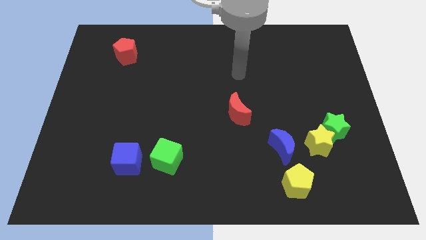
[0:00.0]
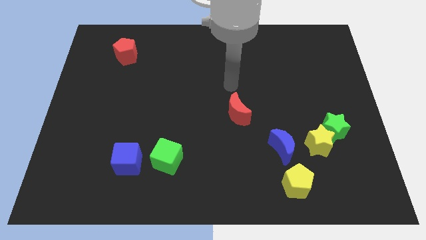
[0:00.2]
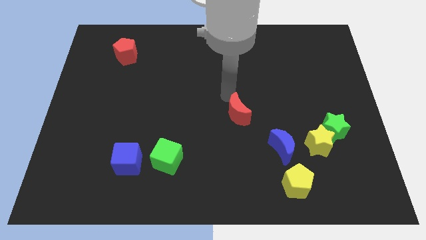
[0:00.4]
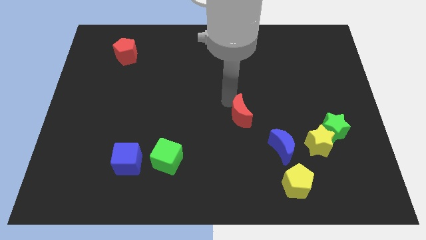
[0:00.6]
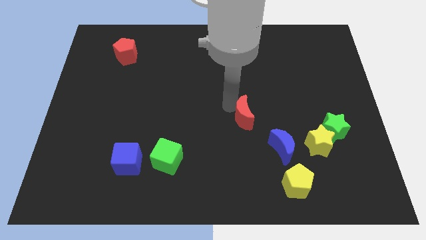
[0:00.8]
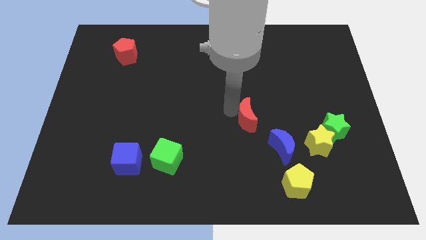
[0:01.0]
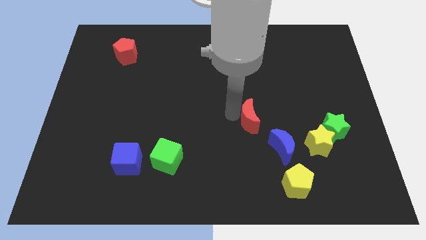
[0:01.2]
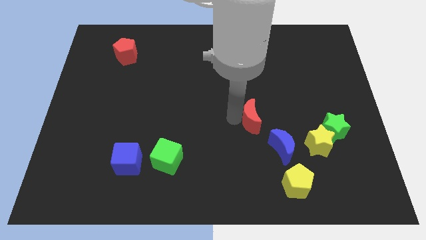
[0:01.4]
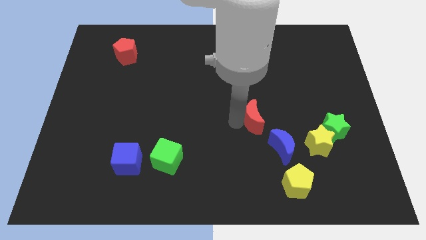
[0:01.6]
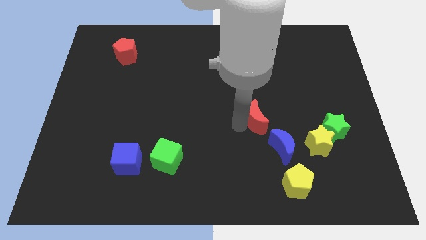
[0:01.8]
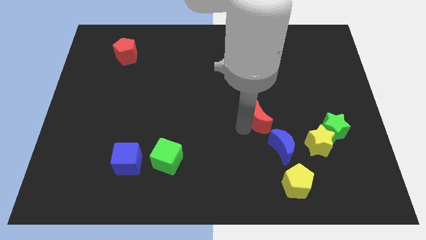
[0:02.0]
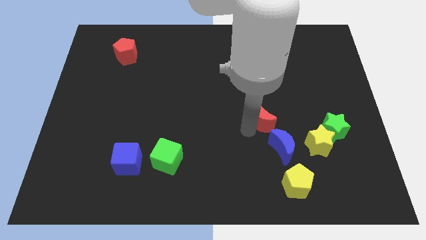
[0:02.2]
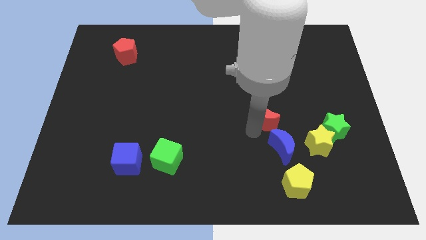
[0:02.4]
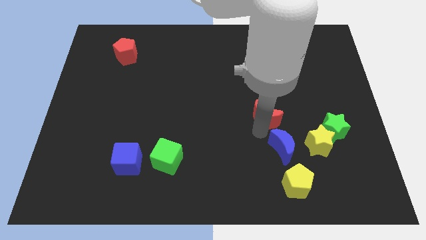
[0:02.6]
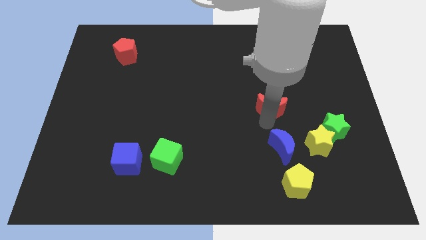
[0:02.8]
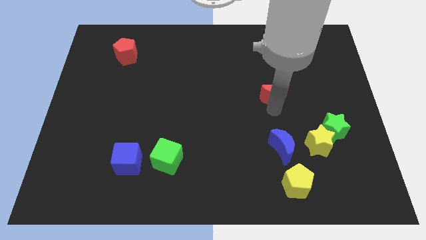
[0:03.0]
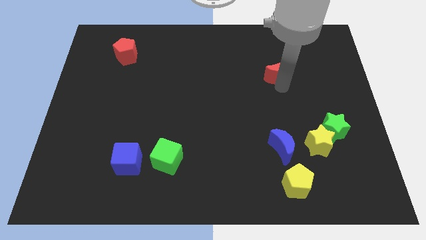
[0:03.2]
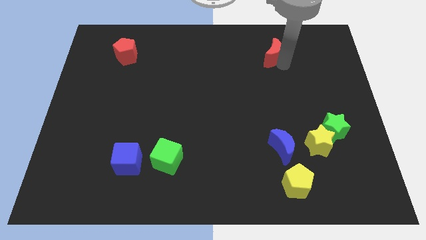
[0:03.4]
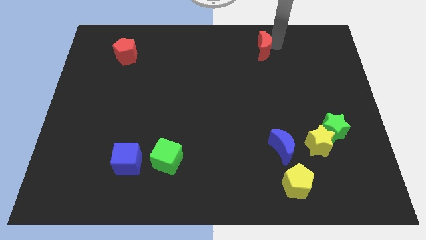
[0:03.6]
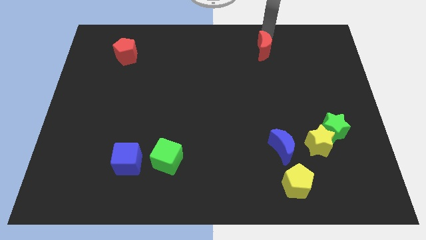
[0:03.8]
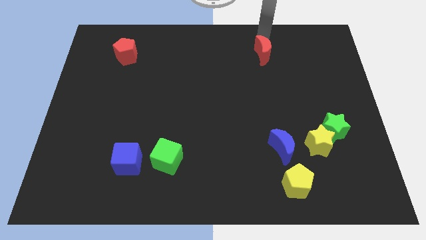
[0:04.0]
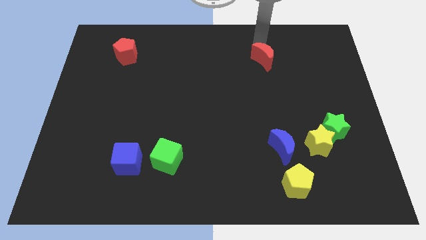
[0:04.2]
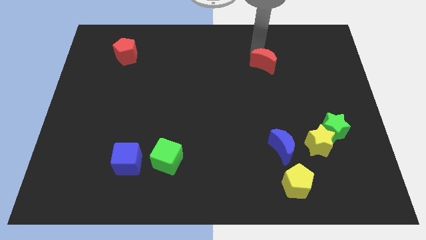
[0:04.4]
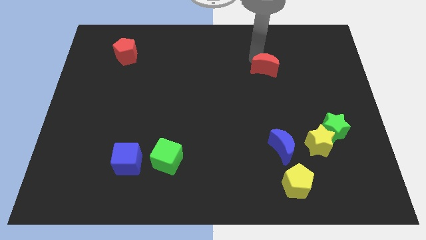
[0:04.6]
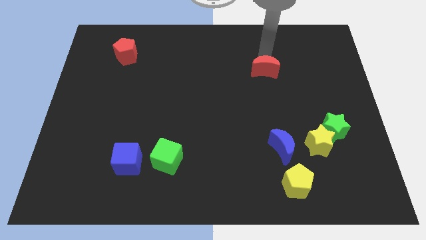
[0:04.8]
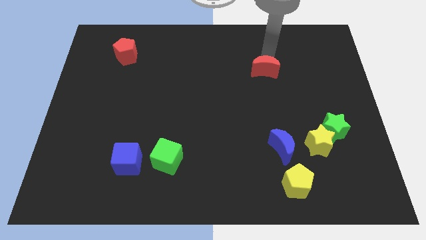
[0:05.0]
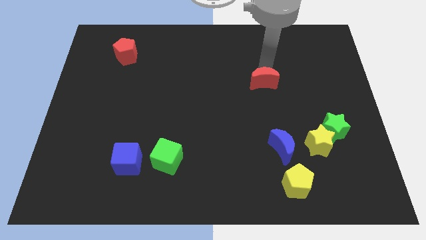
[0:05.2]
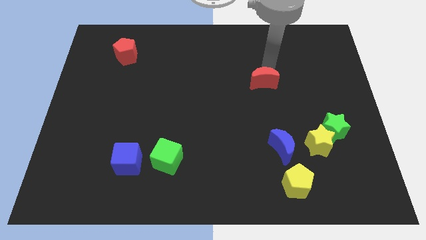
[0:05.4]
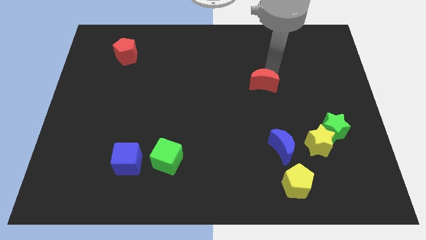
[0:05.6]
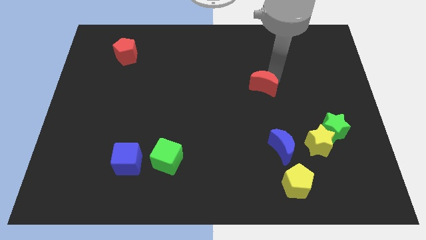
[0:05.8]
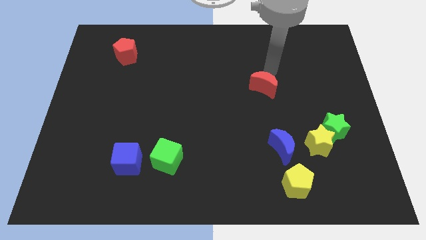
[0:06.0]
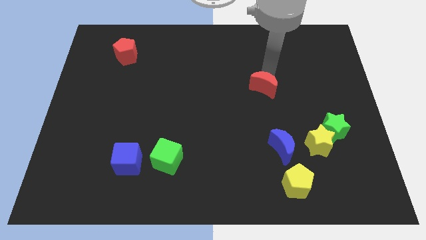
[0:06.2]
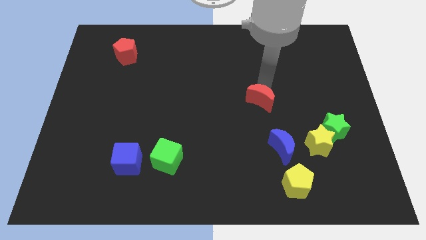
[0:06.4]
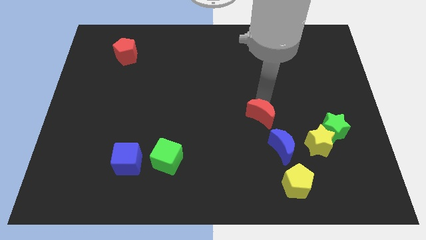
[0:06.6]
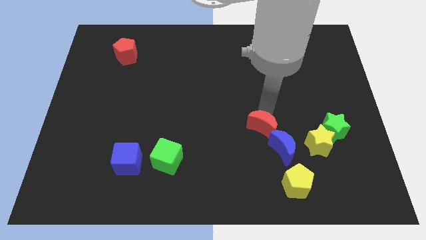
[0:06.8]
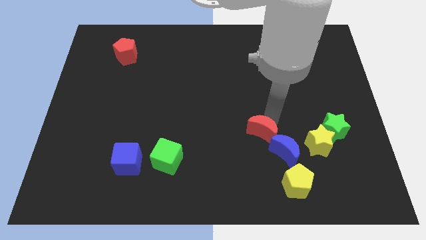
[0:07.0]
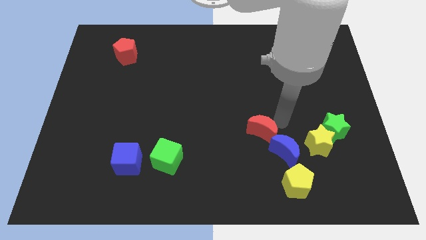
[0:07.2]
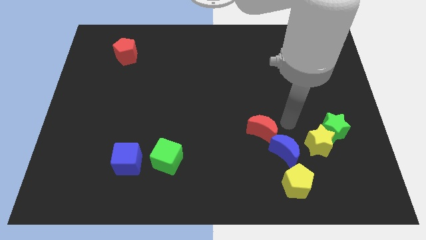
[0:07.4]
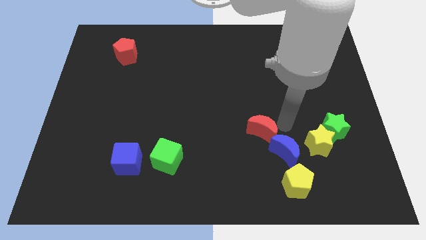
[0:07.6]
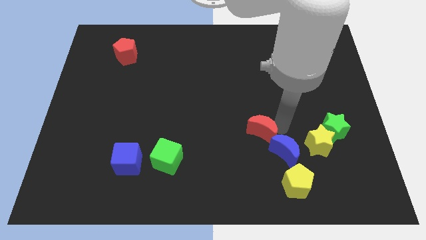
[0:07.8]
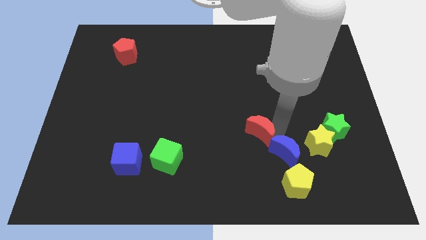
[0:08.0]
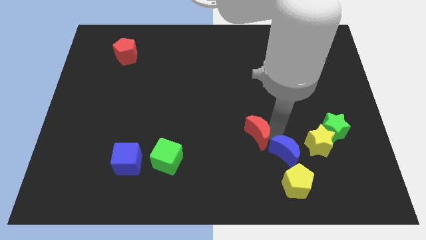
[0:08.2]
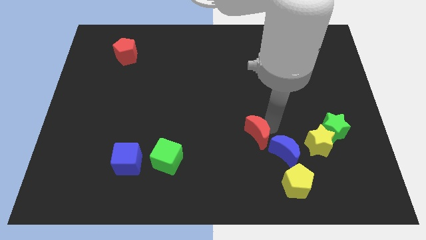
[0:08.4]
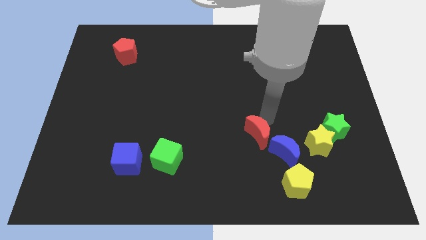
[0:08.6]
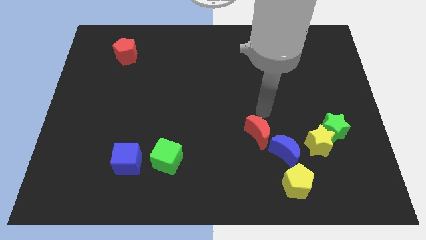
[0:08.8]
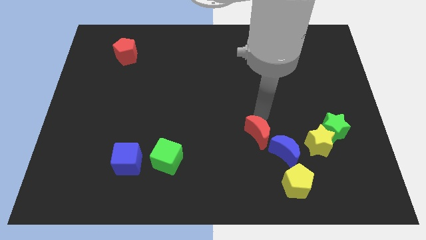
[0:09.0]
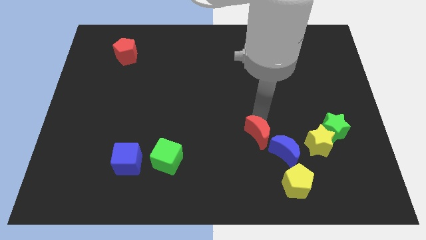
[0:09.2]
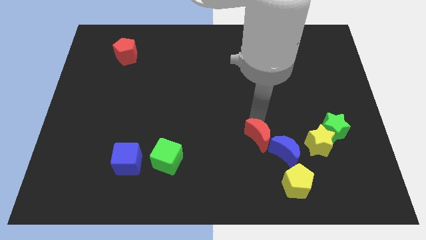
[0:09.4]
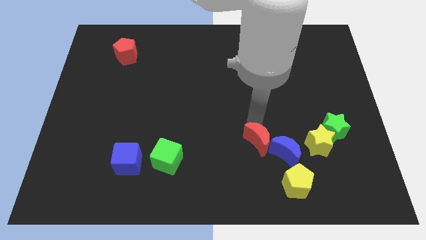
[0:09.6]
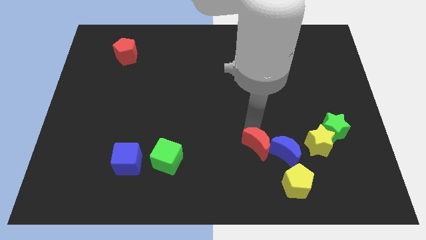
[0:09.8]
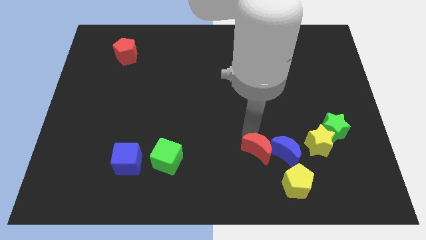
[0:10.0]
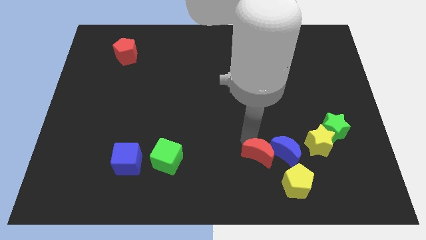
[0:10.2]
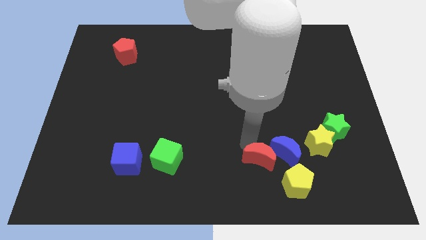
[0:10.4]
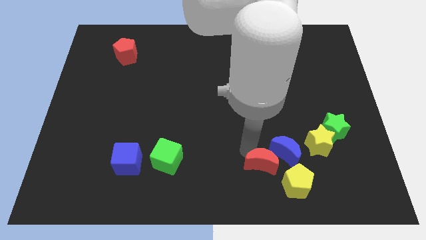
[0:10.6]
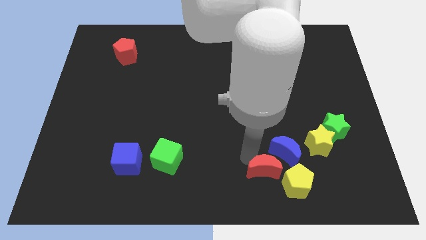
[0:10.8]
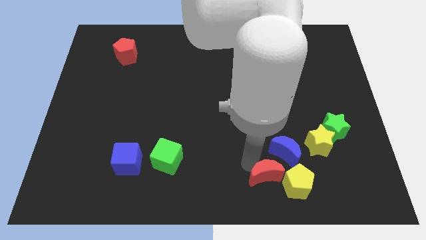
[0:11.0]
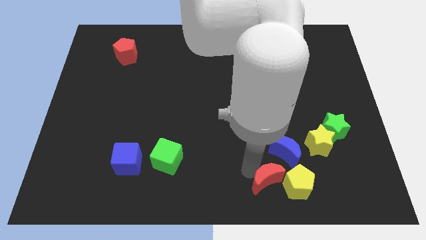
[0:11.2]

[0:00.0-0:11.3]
slide the red moon next to the yellow pentagon

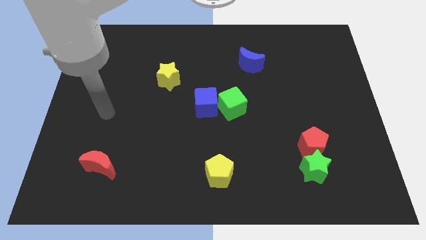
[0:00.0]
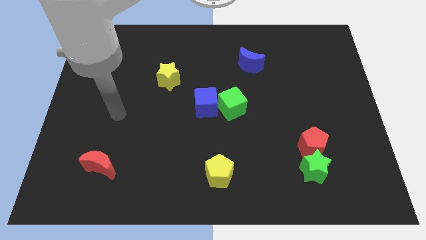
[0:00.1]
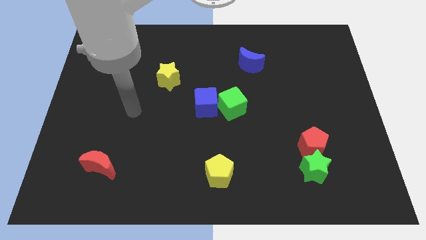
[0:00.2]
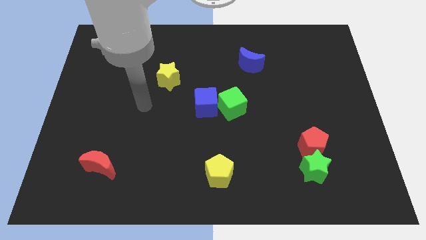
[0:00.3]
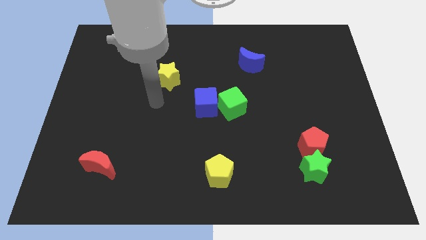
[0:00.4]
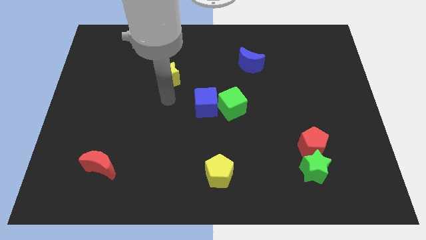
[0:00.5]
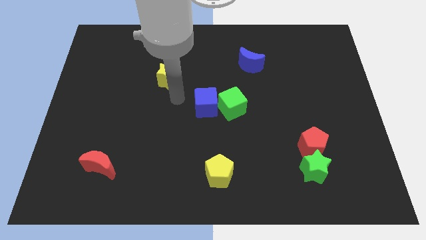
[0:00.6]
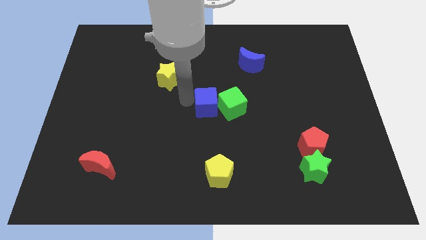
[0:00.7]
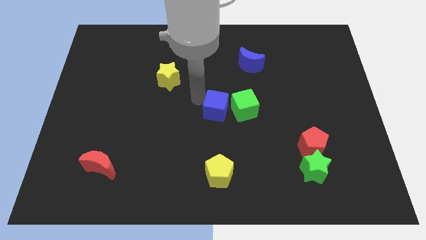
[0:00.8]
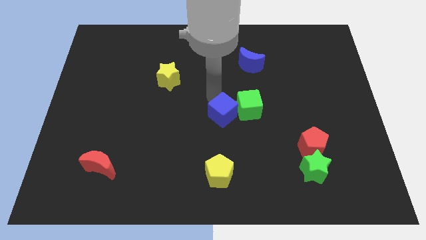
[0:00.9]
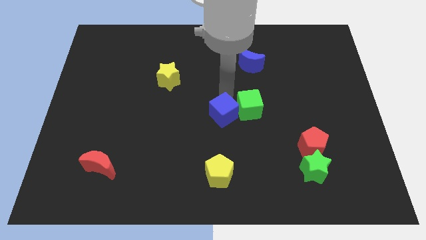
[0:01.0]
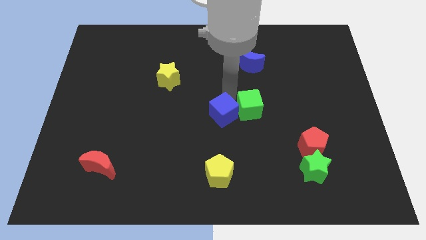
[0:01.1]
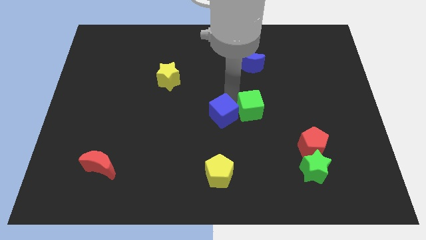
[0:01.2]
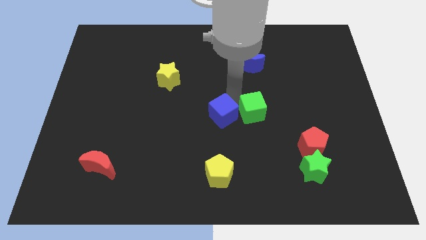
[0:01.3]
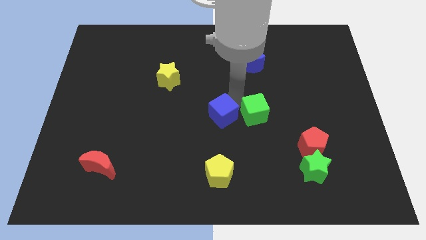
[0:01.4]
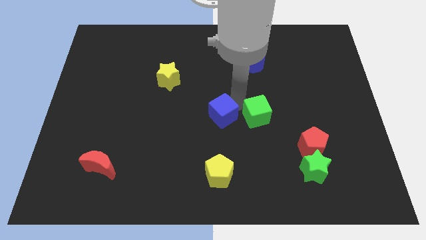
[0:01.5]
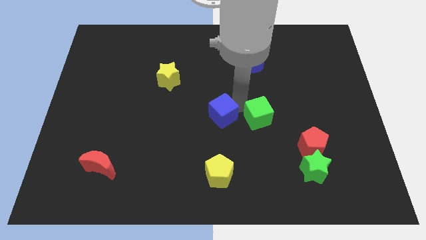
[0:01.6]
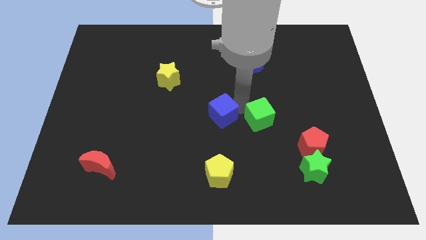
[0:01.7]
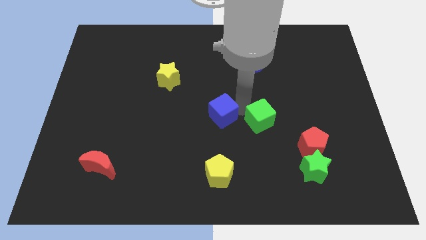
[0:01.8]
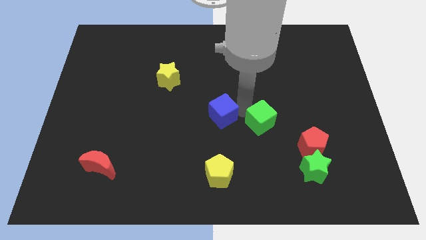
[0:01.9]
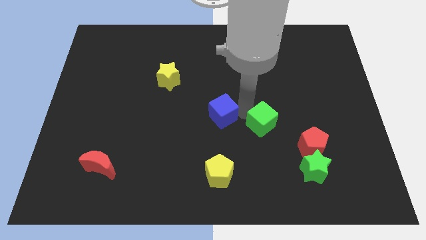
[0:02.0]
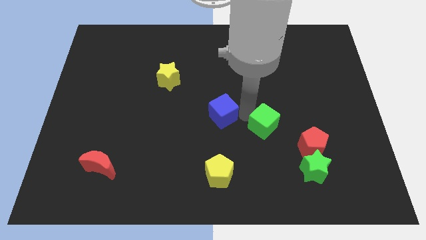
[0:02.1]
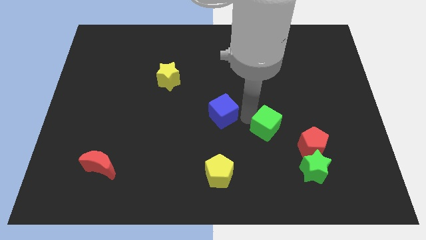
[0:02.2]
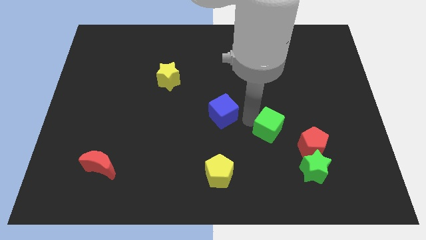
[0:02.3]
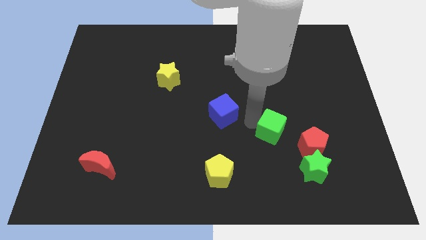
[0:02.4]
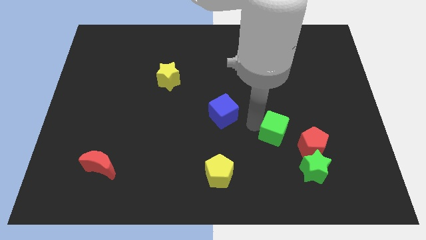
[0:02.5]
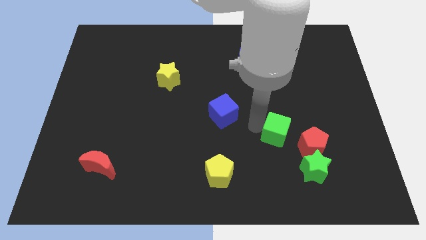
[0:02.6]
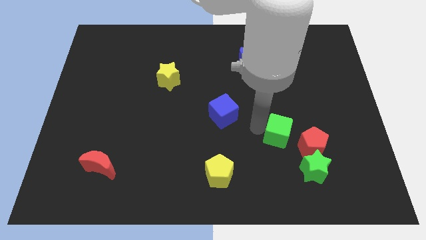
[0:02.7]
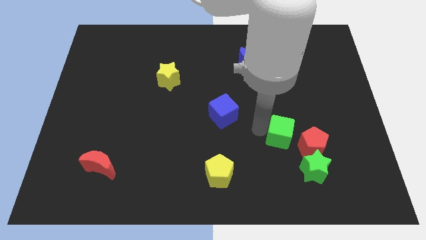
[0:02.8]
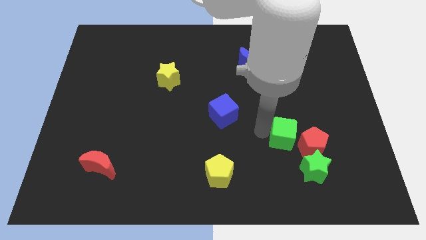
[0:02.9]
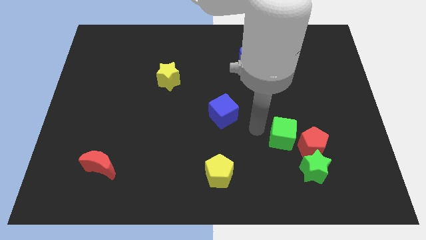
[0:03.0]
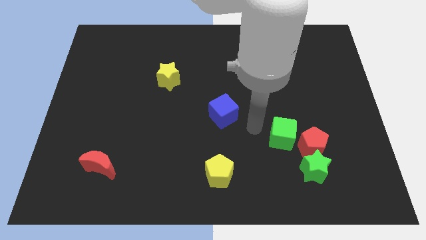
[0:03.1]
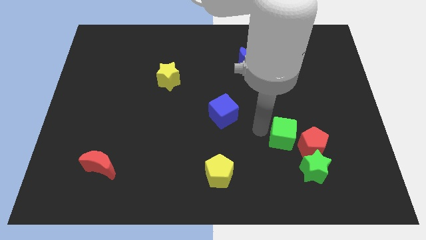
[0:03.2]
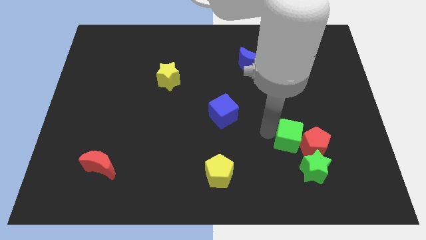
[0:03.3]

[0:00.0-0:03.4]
move the green cube to the red pentagon
